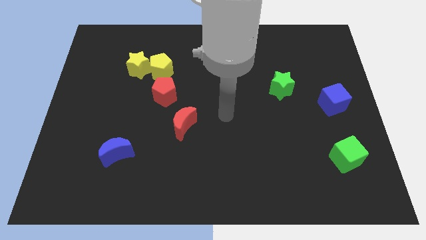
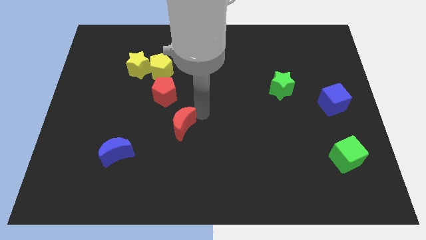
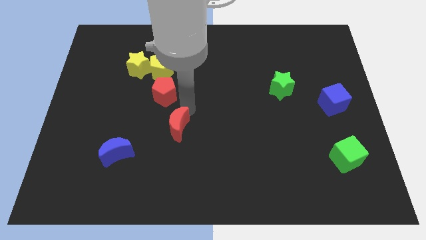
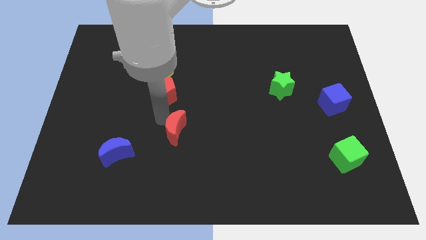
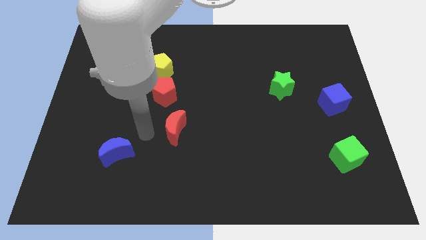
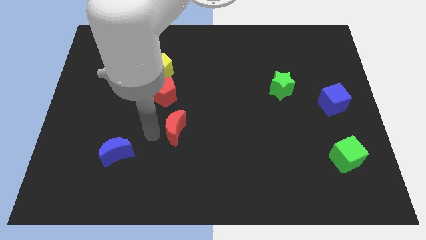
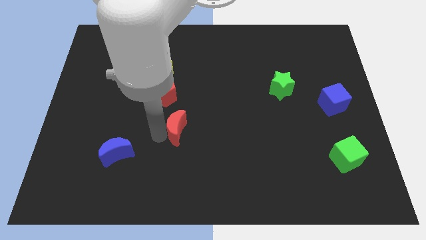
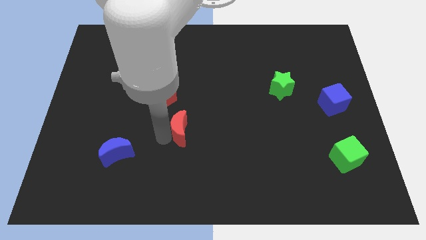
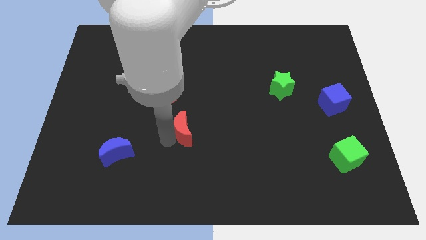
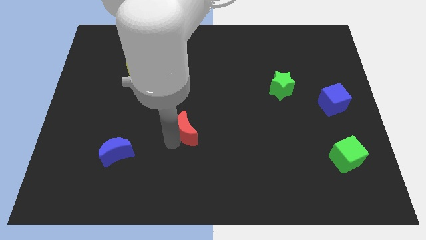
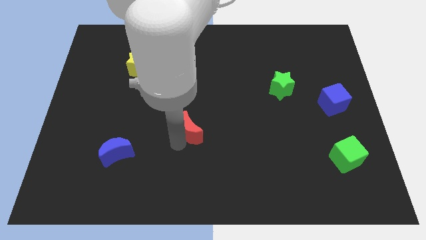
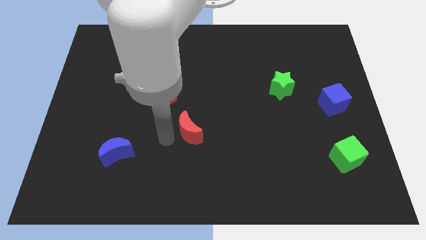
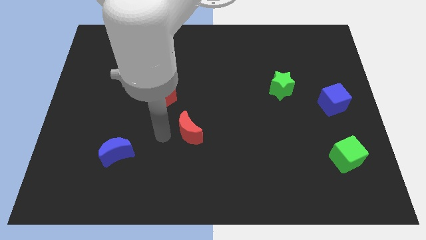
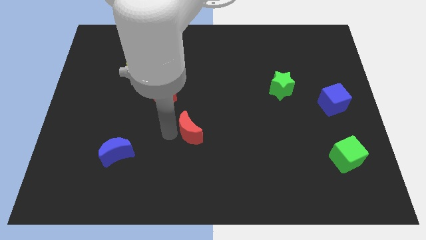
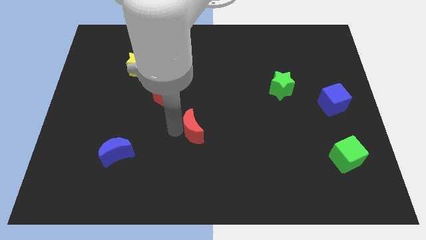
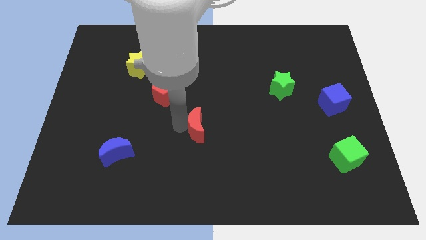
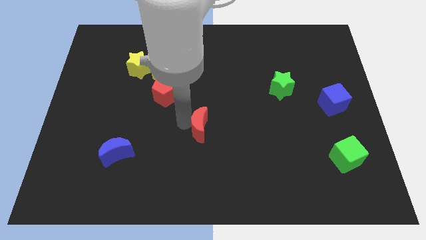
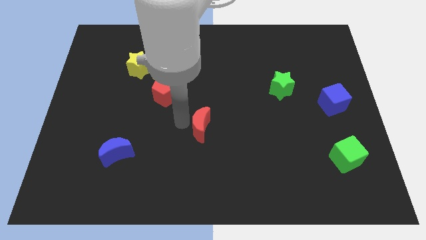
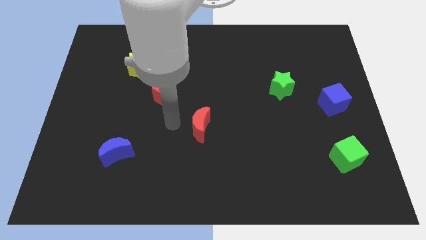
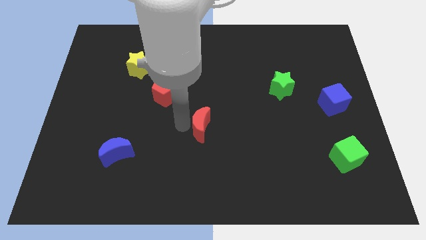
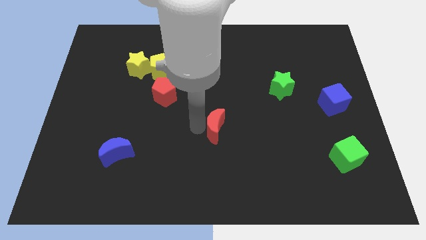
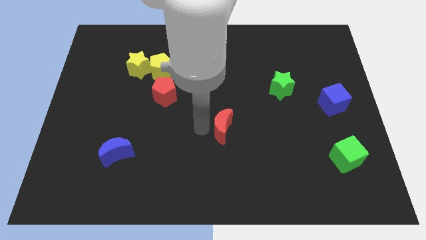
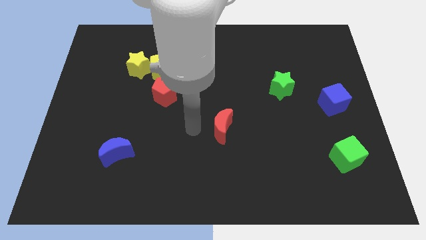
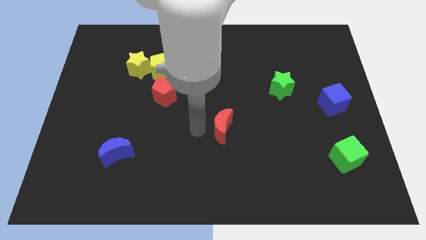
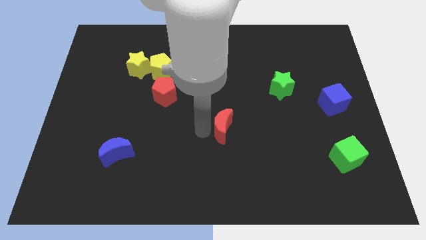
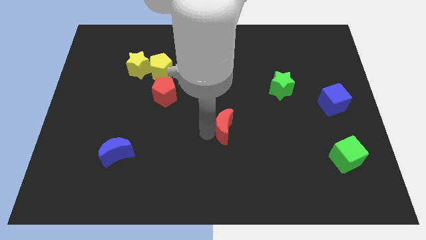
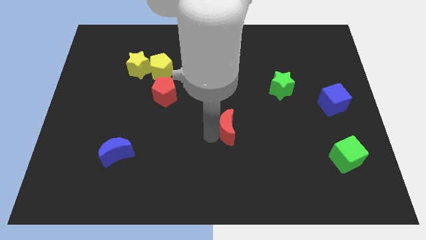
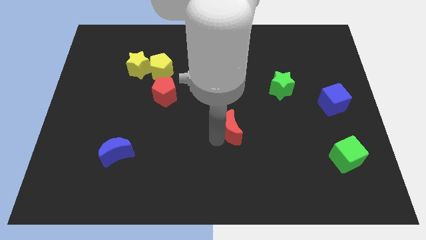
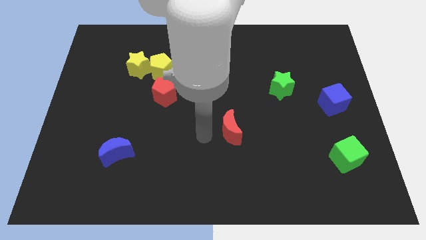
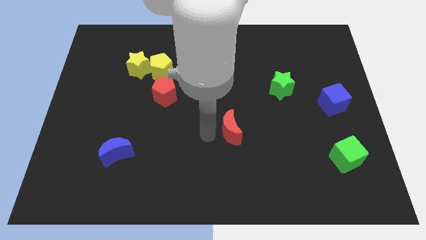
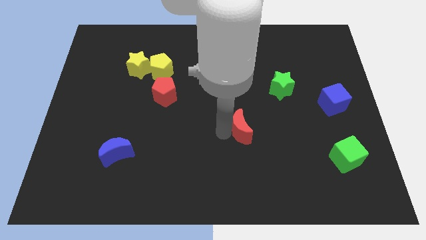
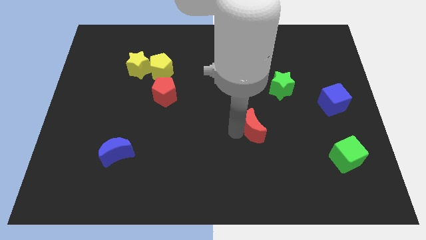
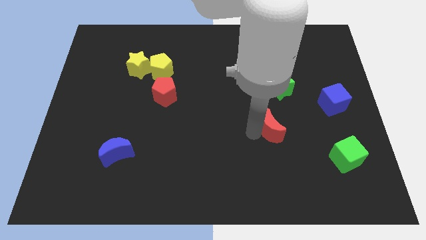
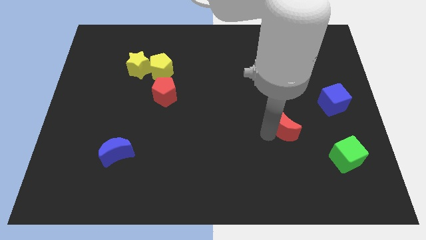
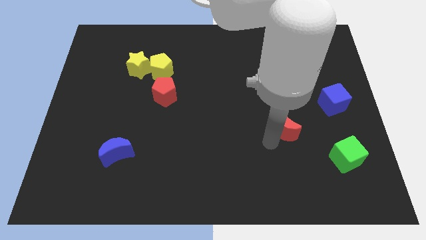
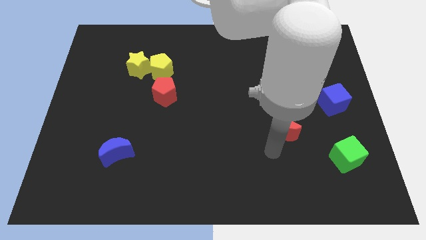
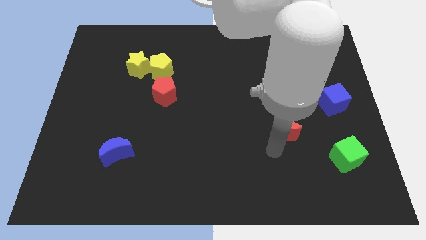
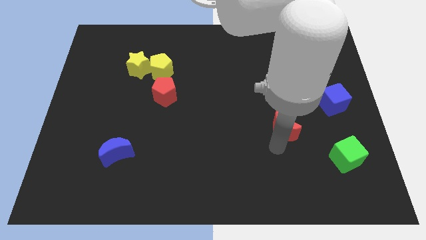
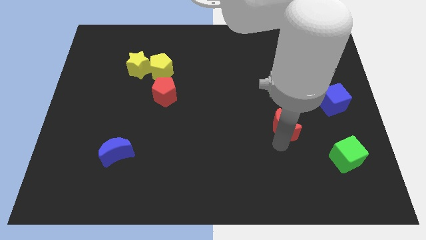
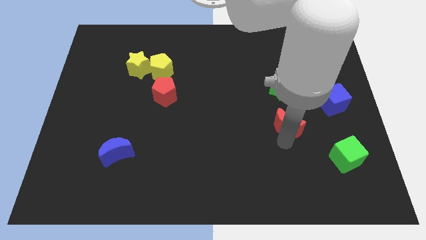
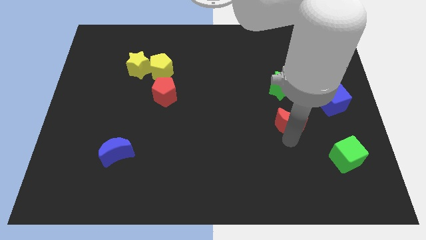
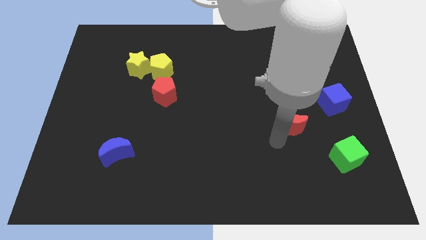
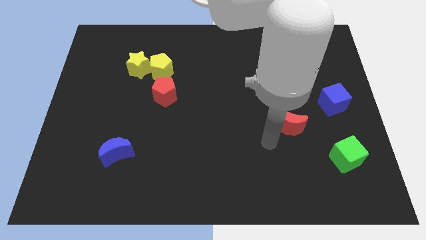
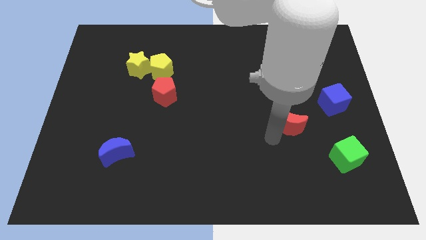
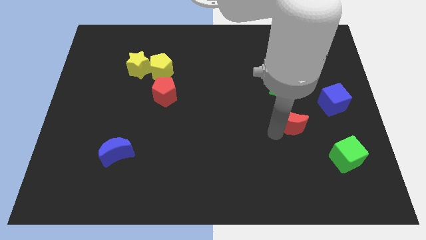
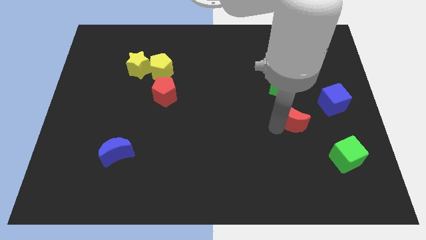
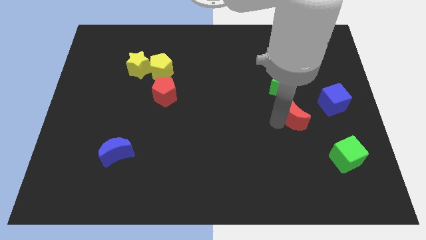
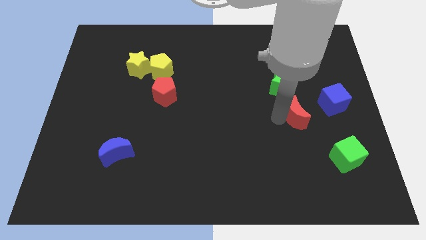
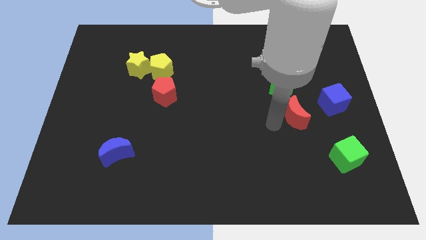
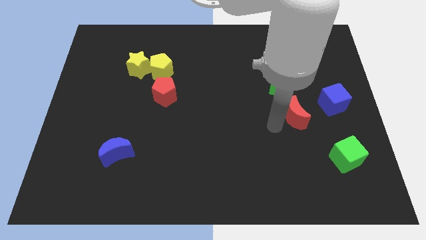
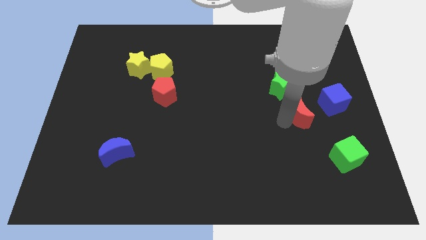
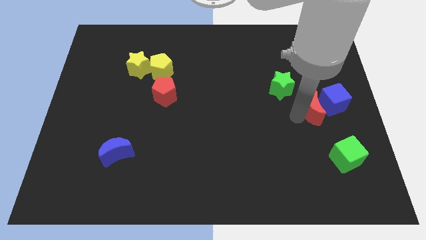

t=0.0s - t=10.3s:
push the red moon to the blue cube

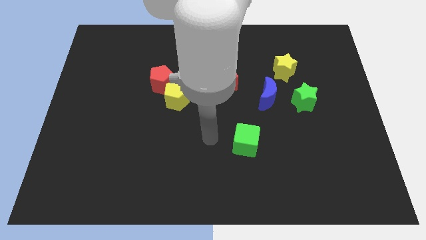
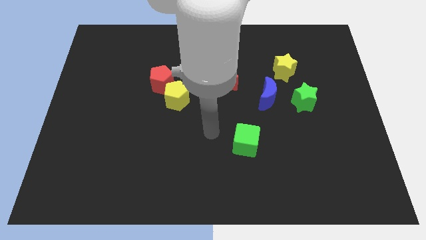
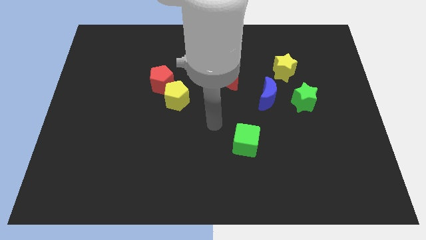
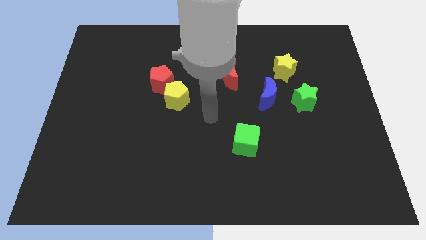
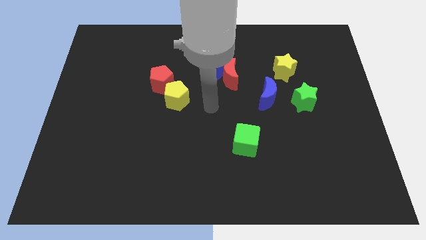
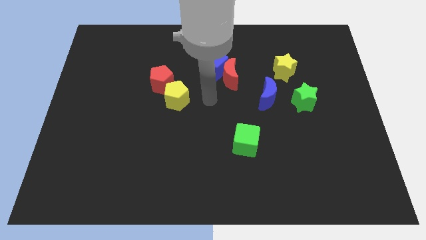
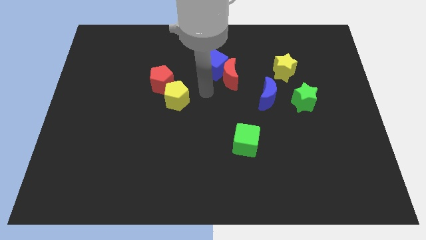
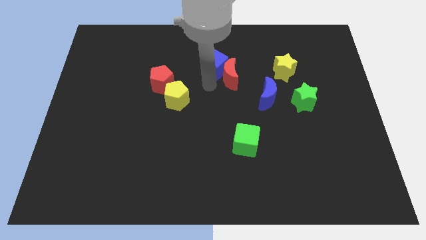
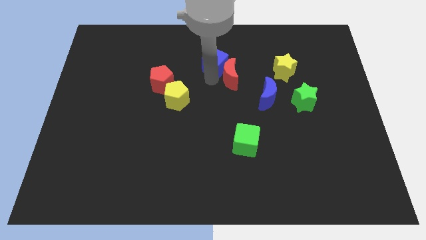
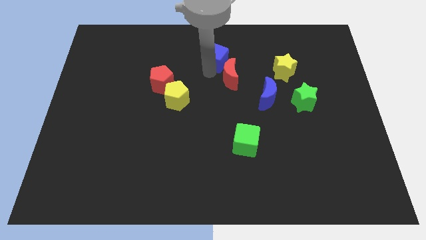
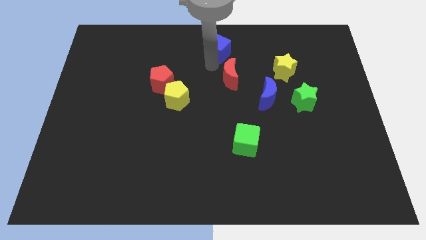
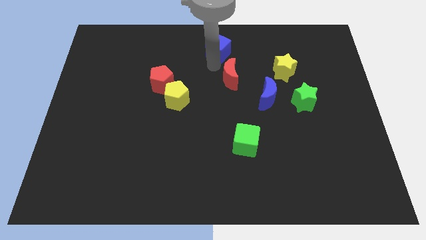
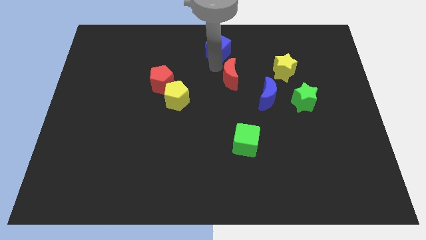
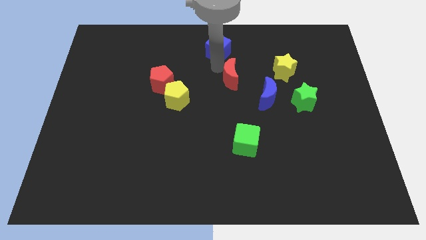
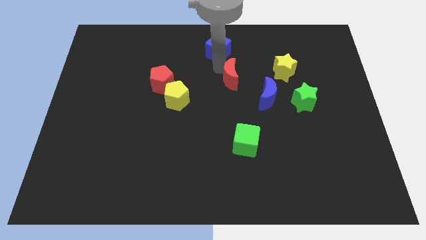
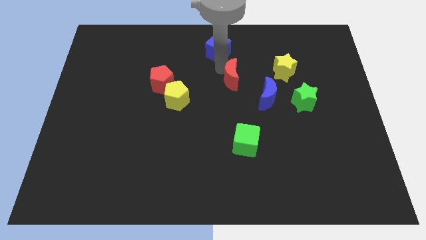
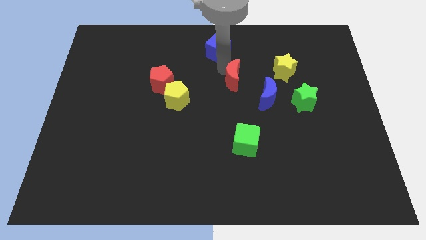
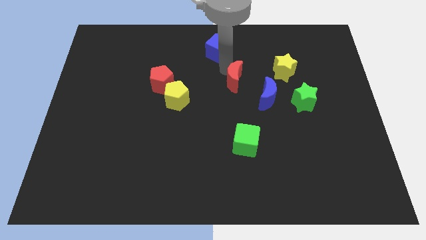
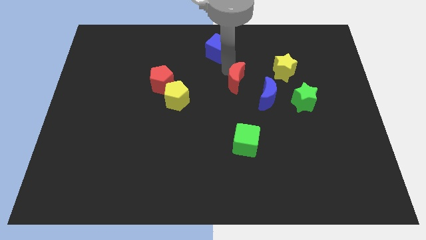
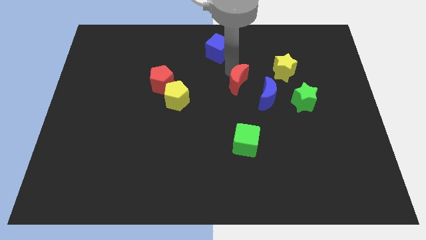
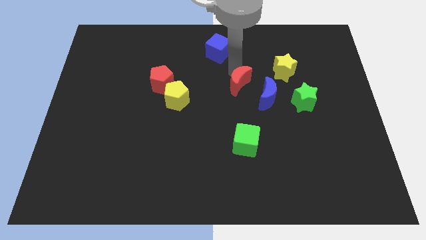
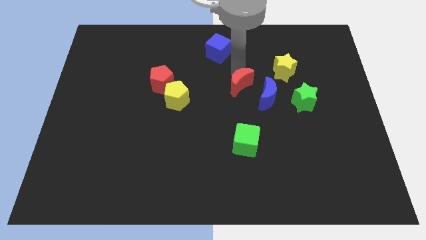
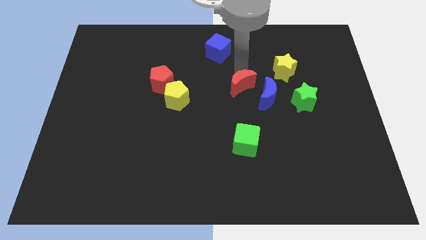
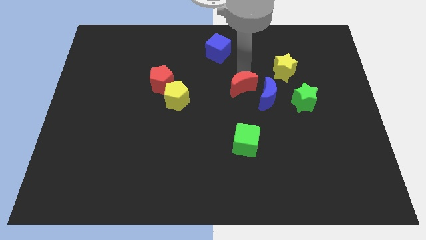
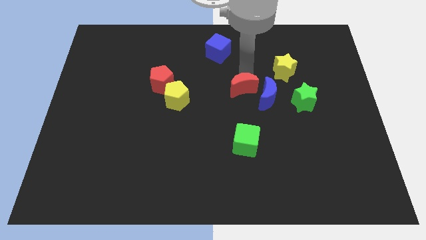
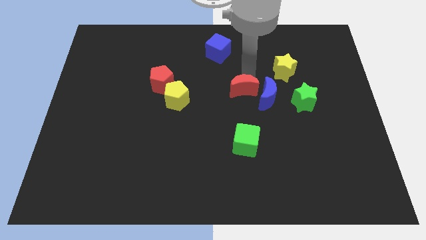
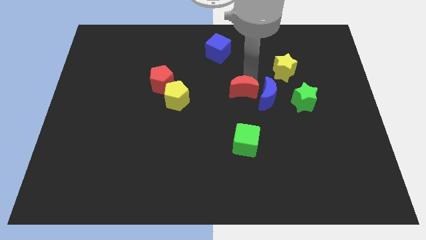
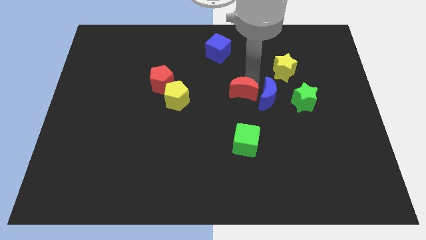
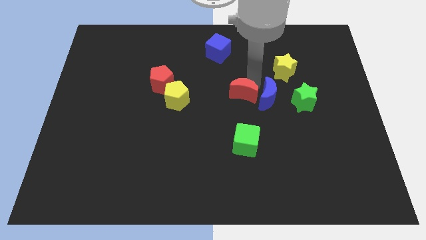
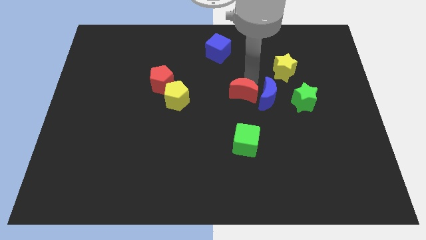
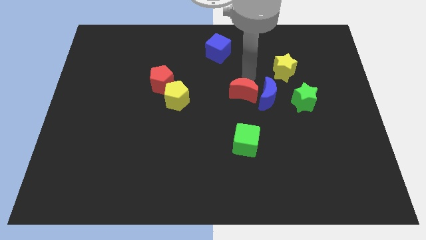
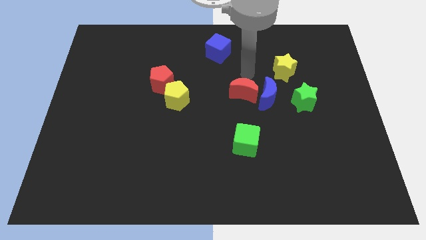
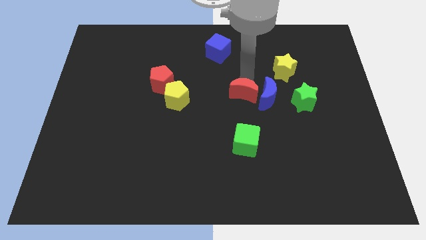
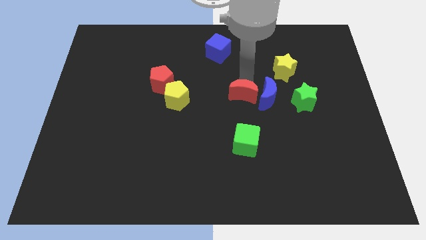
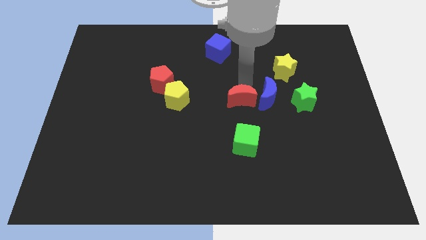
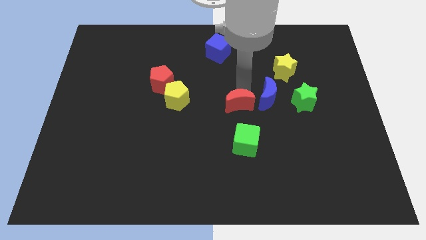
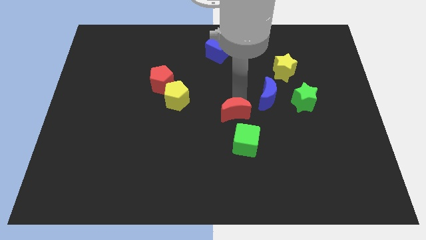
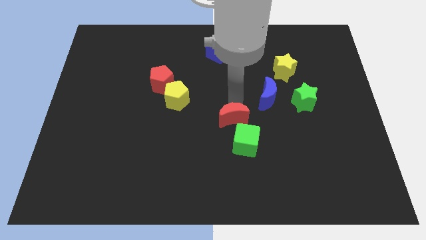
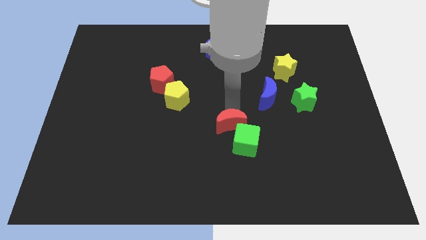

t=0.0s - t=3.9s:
put the red moon close to the green cube
